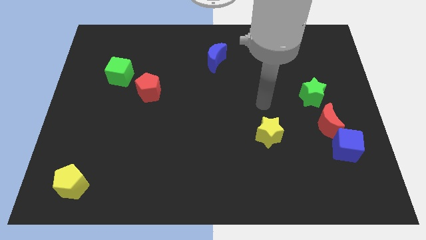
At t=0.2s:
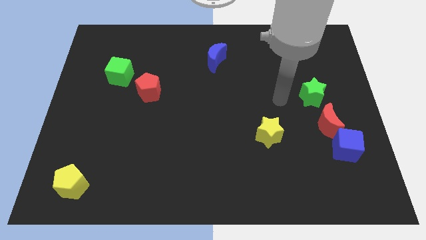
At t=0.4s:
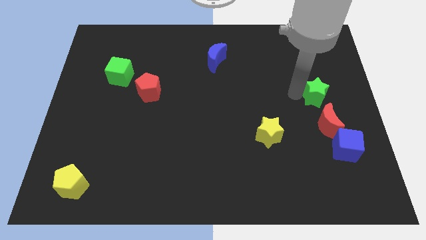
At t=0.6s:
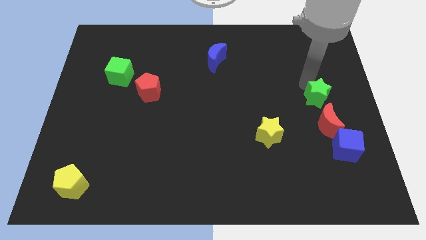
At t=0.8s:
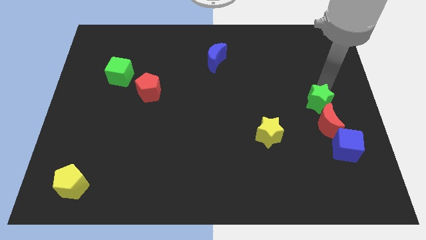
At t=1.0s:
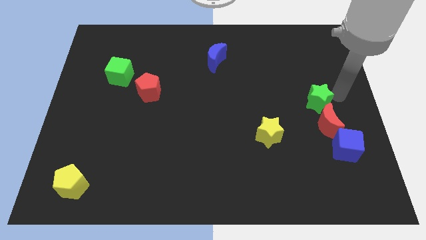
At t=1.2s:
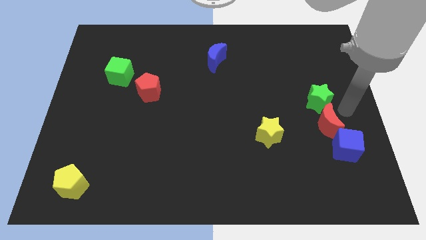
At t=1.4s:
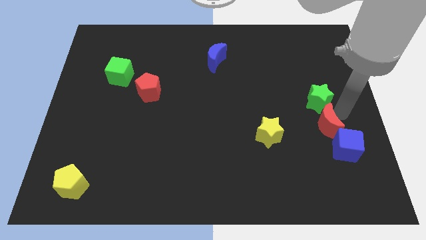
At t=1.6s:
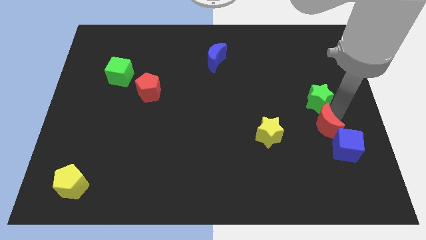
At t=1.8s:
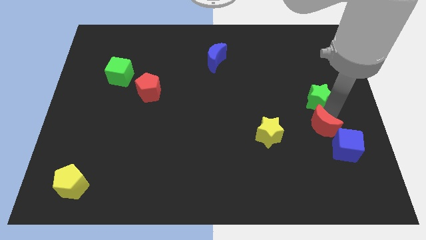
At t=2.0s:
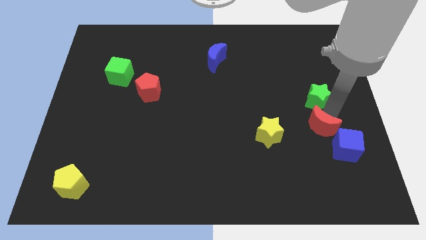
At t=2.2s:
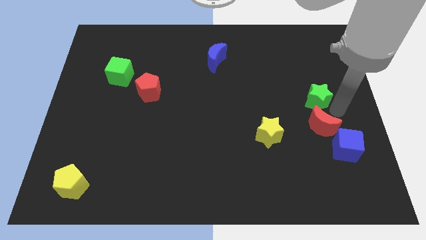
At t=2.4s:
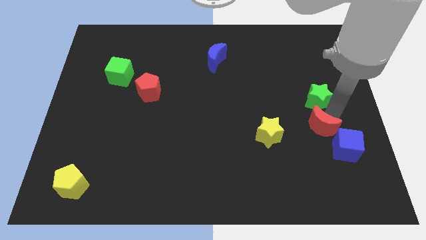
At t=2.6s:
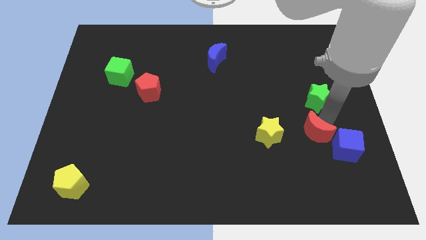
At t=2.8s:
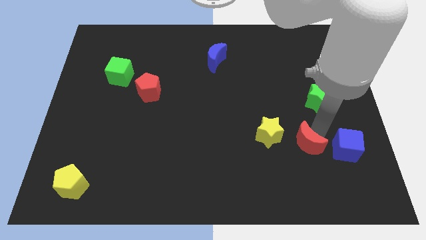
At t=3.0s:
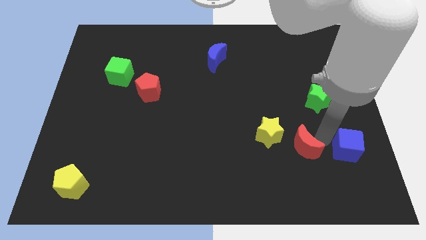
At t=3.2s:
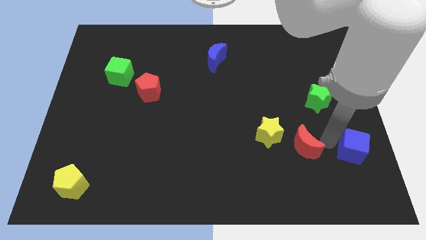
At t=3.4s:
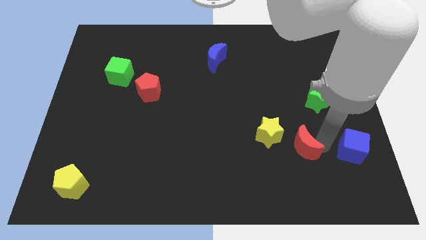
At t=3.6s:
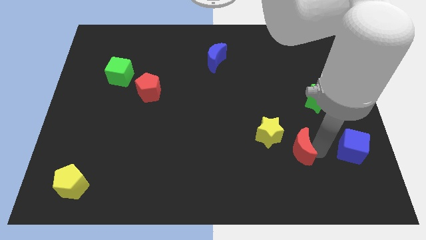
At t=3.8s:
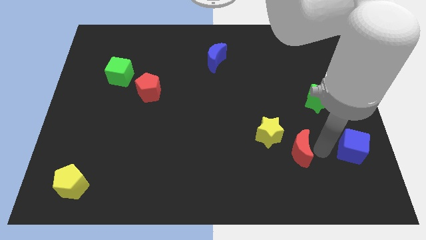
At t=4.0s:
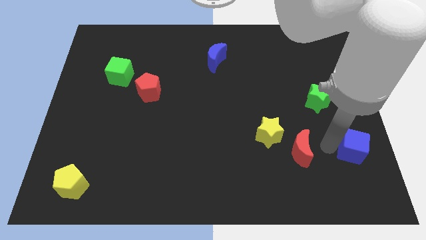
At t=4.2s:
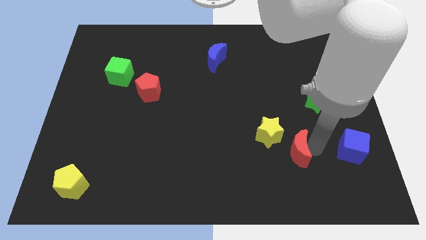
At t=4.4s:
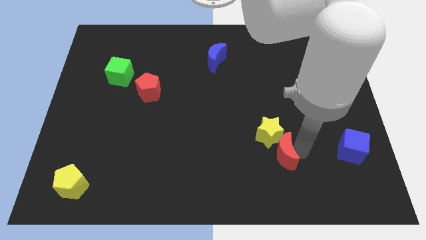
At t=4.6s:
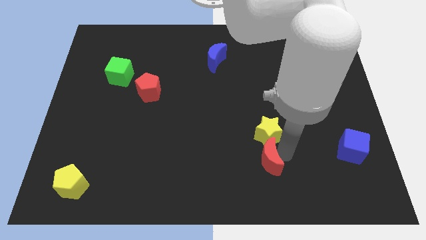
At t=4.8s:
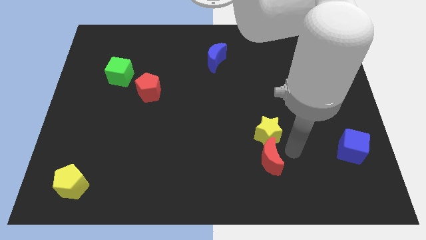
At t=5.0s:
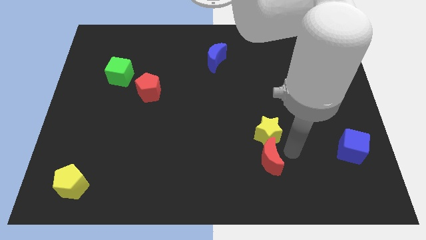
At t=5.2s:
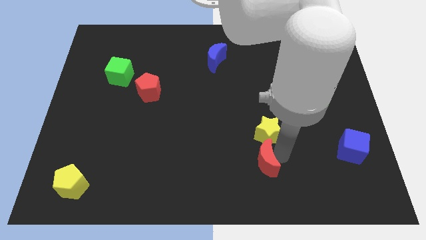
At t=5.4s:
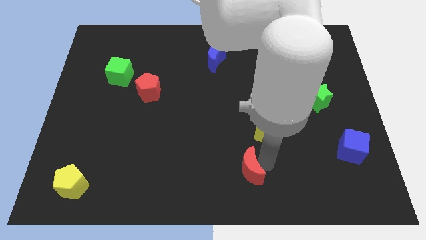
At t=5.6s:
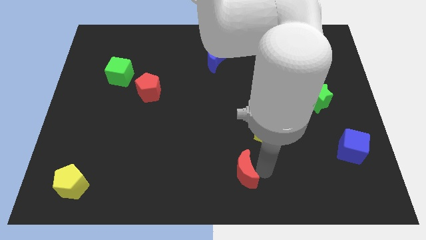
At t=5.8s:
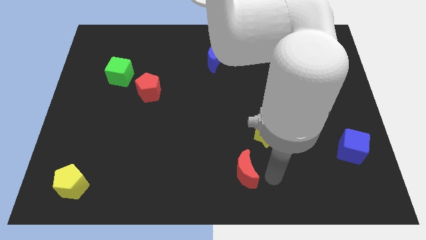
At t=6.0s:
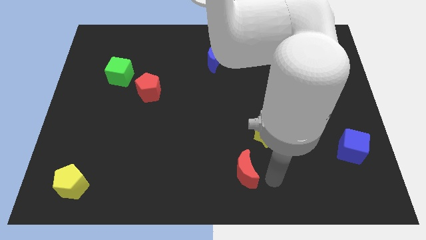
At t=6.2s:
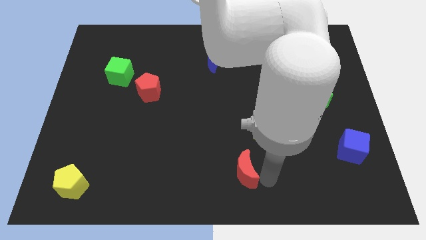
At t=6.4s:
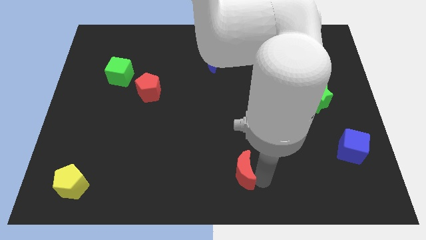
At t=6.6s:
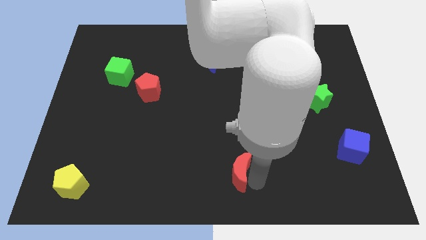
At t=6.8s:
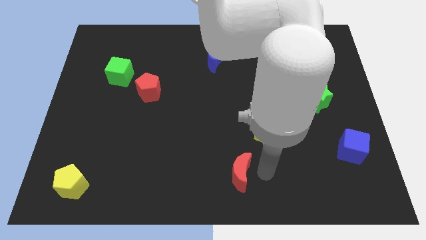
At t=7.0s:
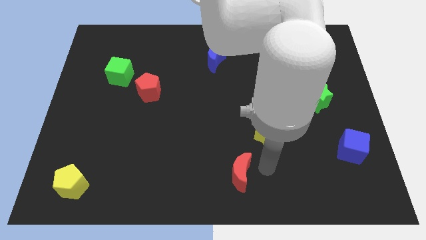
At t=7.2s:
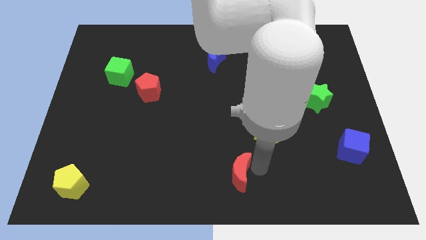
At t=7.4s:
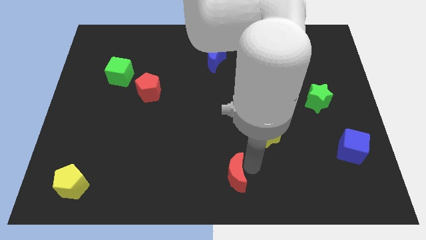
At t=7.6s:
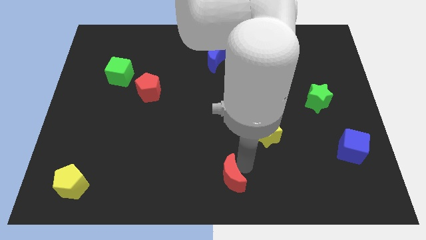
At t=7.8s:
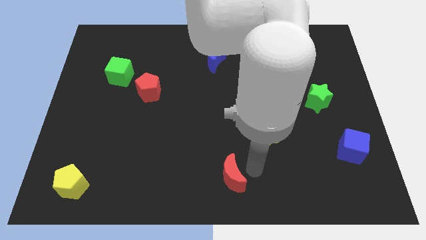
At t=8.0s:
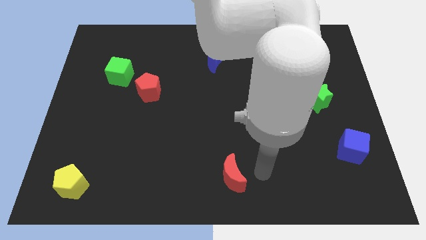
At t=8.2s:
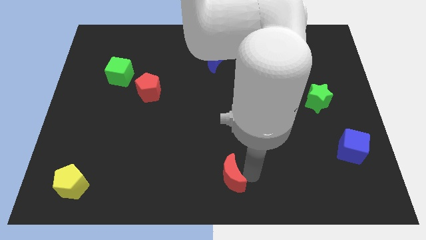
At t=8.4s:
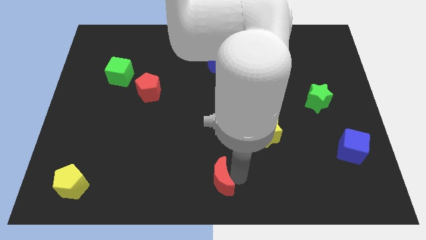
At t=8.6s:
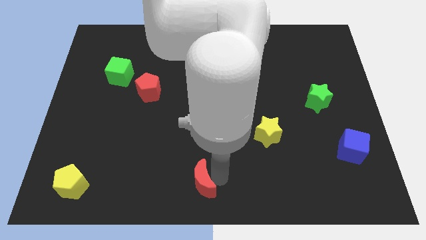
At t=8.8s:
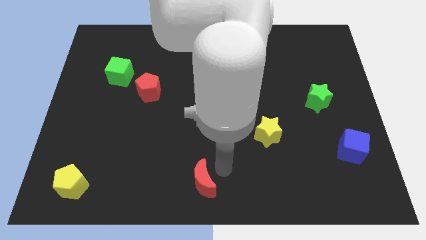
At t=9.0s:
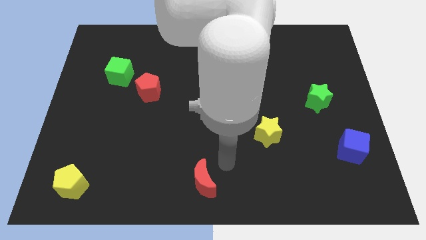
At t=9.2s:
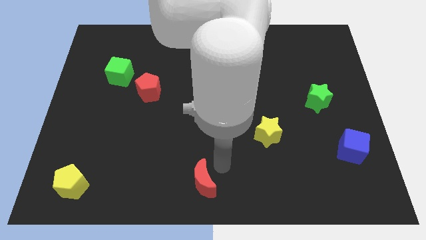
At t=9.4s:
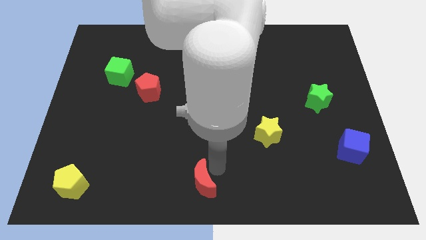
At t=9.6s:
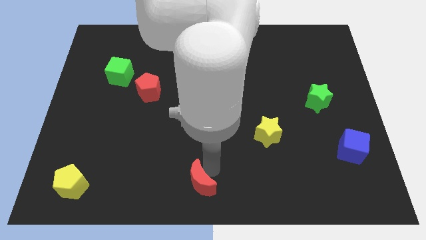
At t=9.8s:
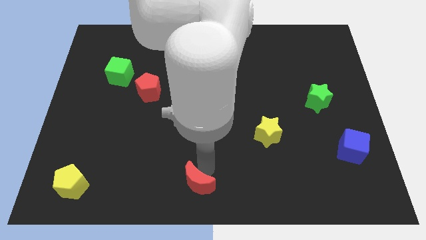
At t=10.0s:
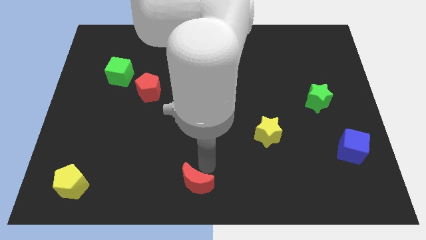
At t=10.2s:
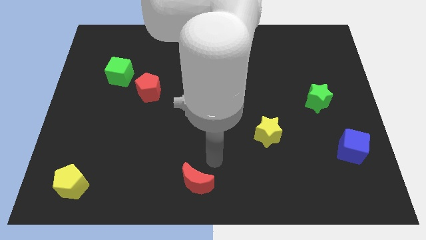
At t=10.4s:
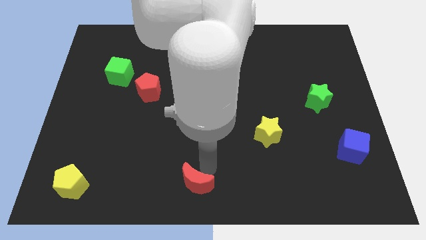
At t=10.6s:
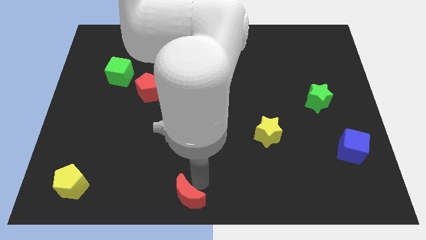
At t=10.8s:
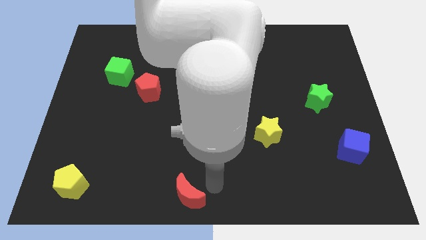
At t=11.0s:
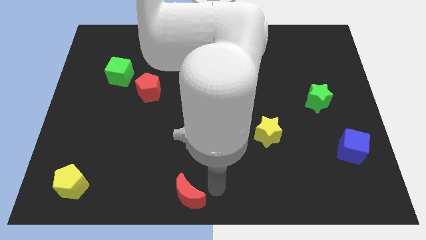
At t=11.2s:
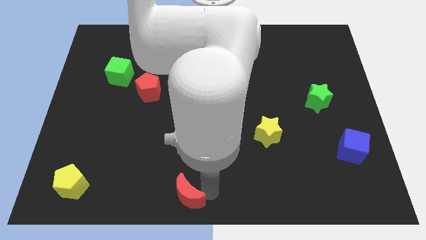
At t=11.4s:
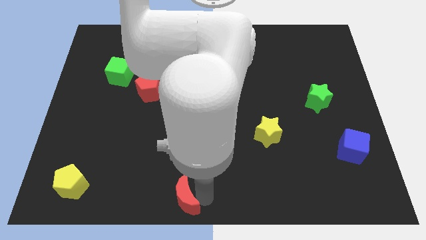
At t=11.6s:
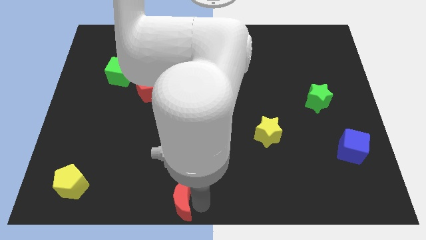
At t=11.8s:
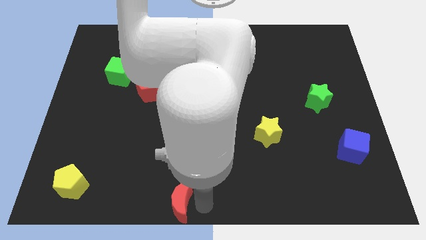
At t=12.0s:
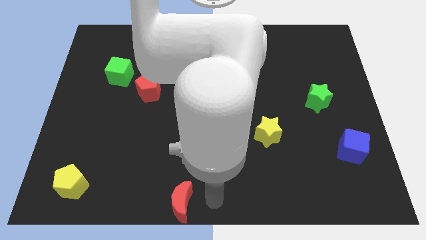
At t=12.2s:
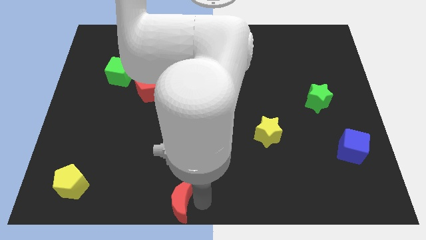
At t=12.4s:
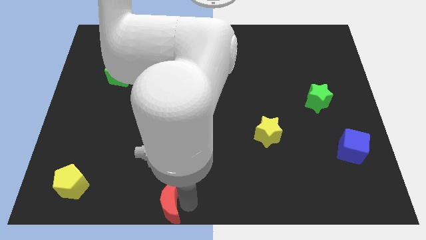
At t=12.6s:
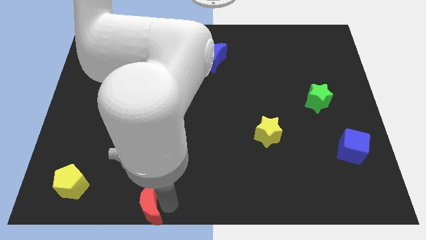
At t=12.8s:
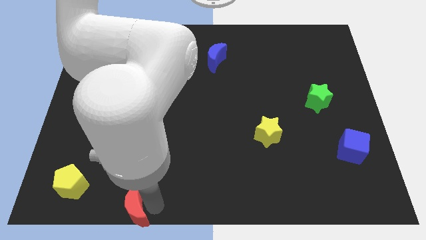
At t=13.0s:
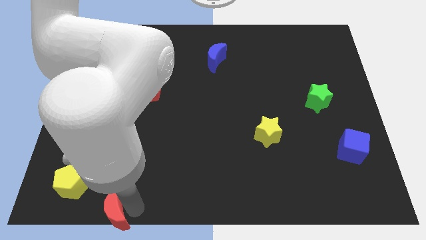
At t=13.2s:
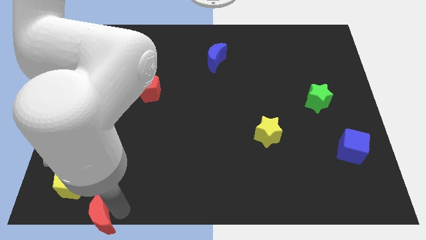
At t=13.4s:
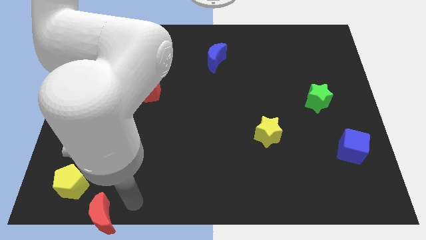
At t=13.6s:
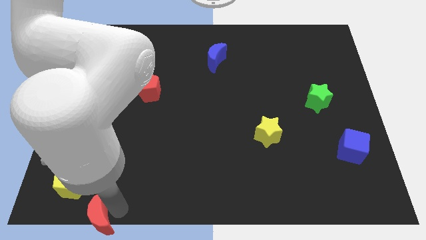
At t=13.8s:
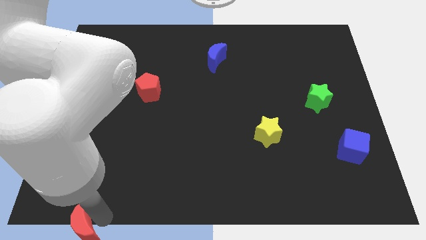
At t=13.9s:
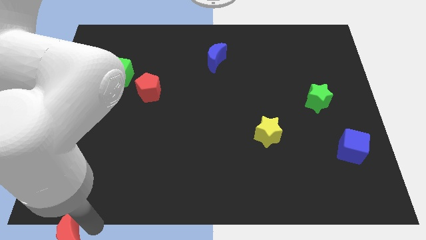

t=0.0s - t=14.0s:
move the red moon to the bottom left
